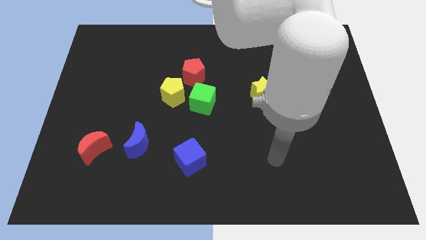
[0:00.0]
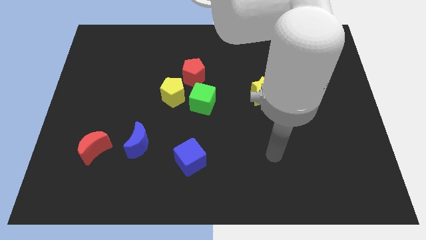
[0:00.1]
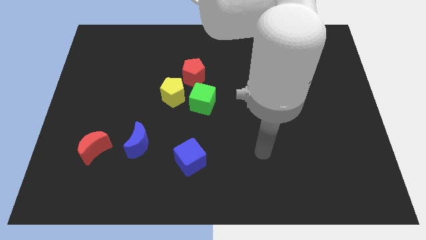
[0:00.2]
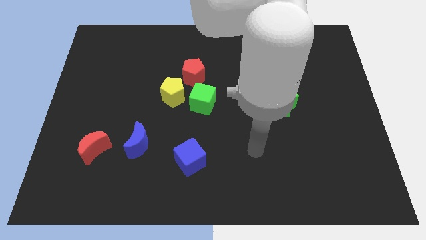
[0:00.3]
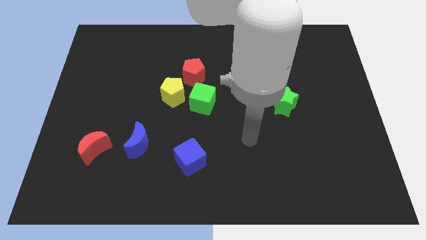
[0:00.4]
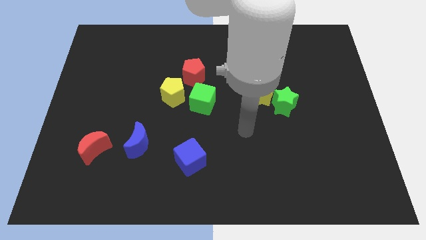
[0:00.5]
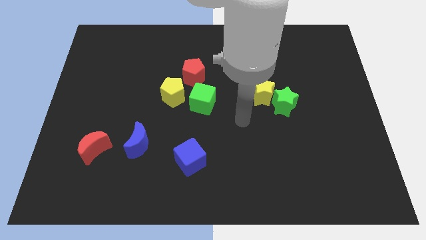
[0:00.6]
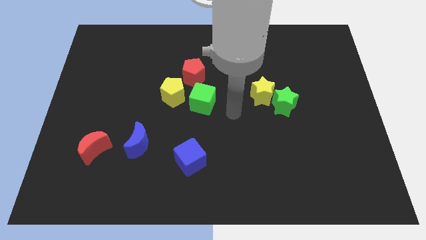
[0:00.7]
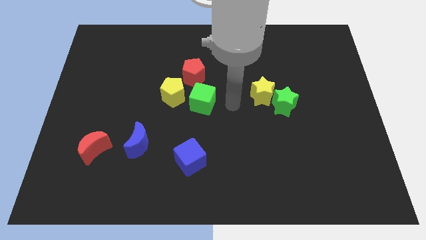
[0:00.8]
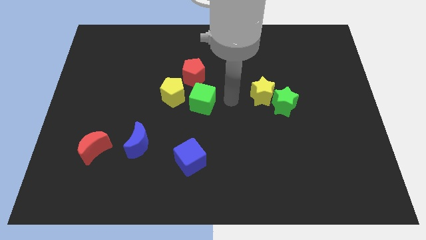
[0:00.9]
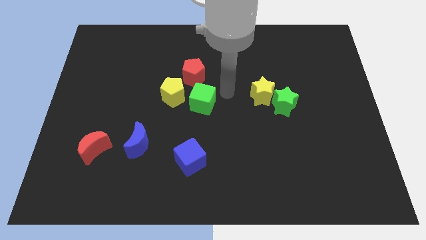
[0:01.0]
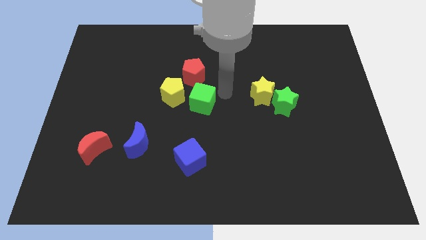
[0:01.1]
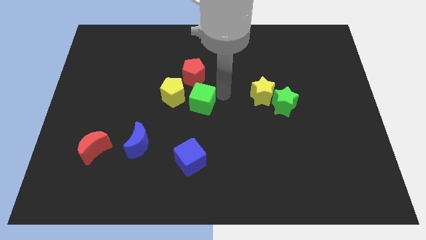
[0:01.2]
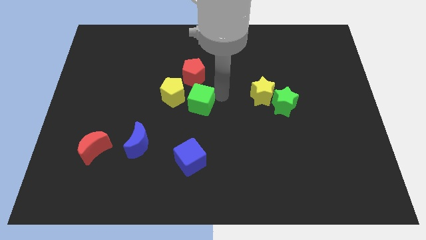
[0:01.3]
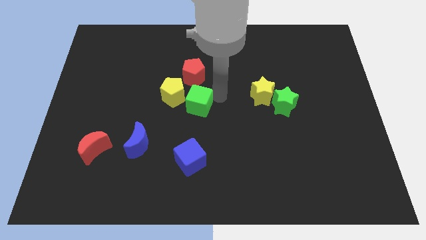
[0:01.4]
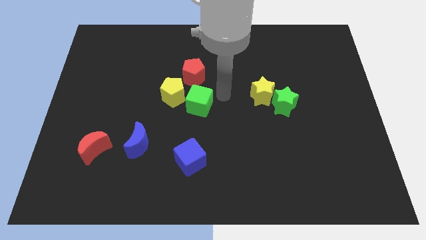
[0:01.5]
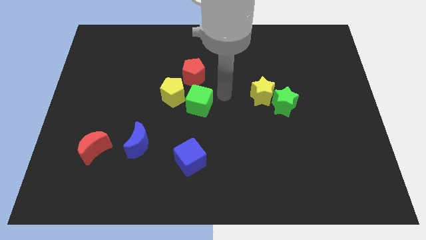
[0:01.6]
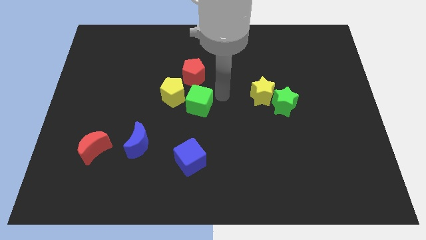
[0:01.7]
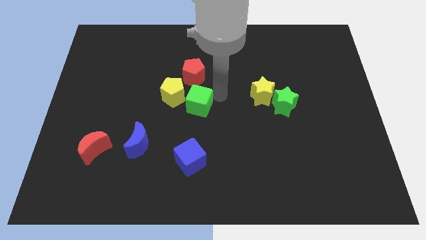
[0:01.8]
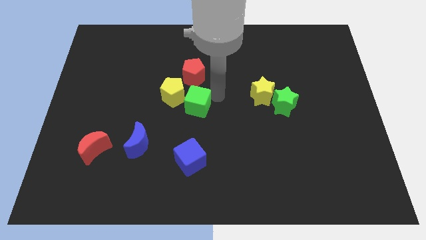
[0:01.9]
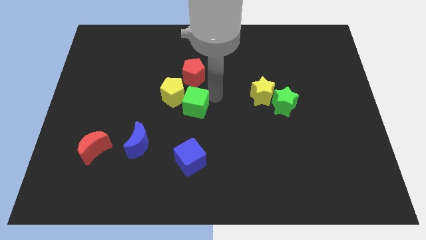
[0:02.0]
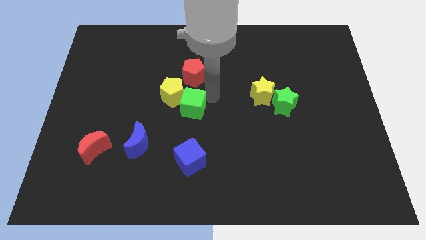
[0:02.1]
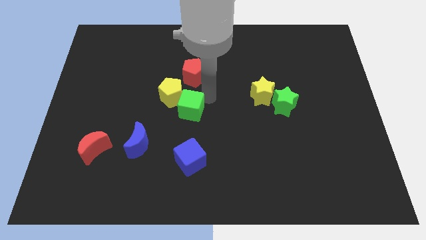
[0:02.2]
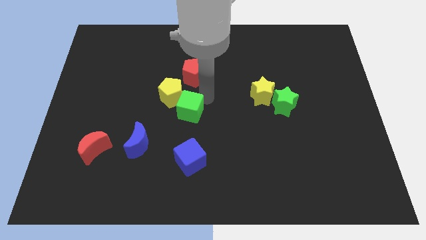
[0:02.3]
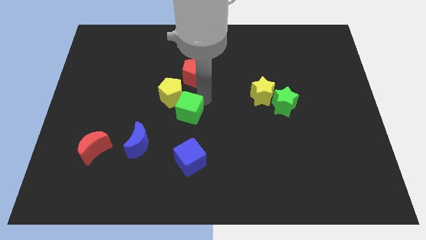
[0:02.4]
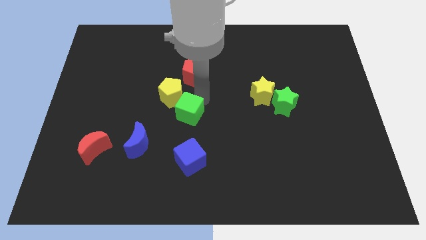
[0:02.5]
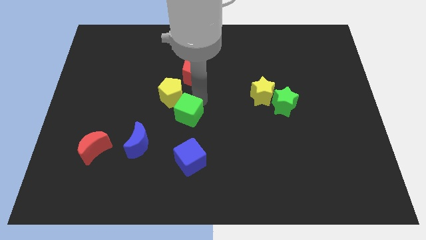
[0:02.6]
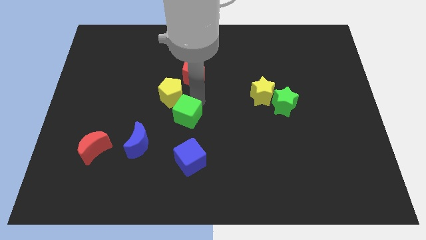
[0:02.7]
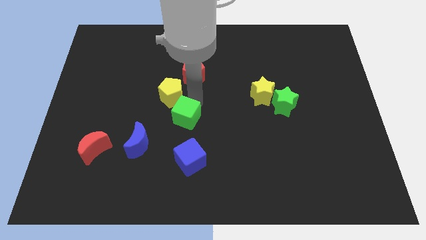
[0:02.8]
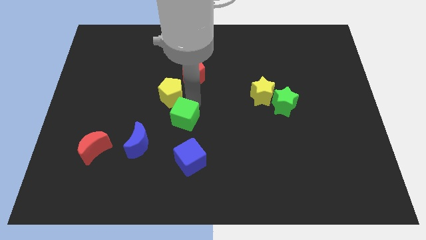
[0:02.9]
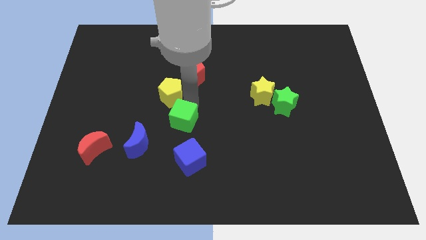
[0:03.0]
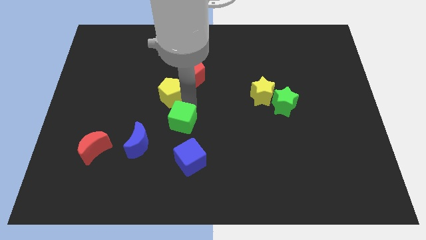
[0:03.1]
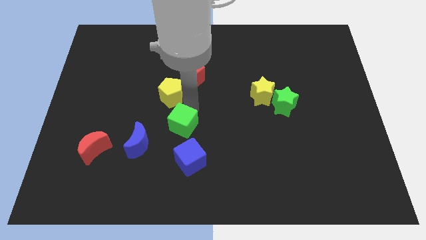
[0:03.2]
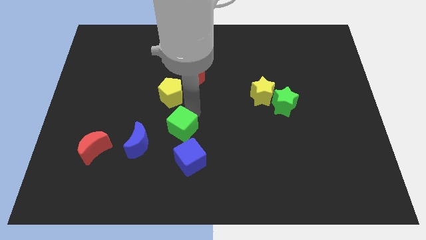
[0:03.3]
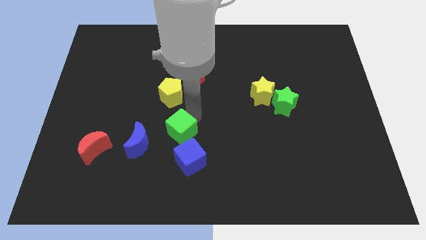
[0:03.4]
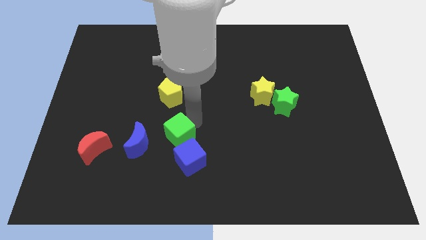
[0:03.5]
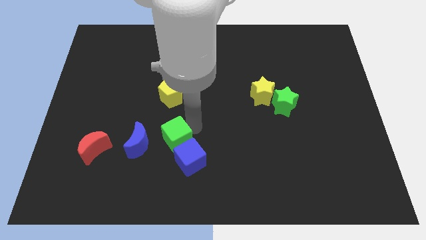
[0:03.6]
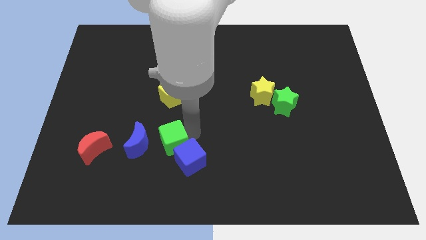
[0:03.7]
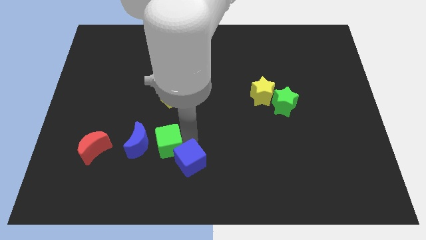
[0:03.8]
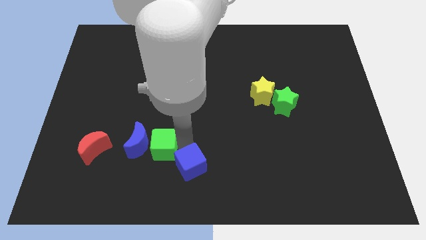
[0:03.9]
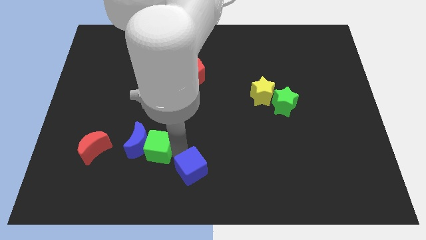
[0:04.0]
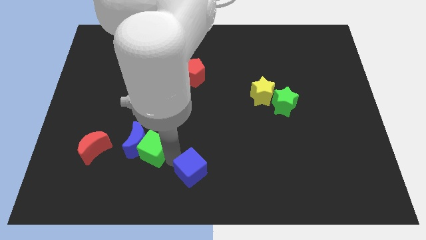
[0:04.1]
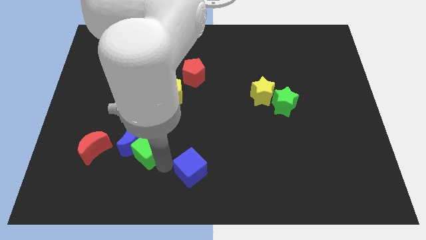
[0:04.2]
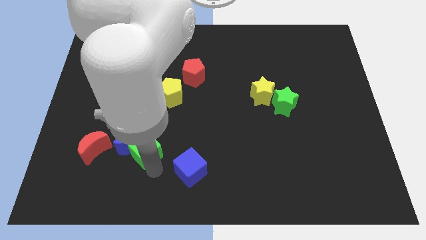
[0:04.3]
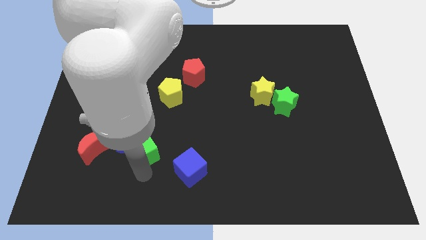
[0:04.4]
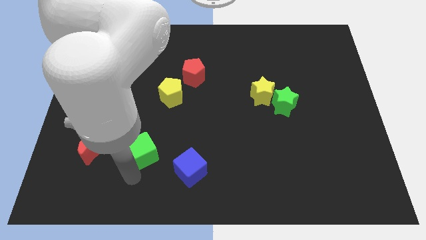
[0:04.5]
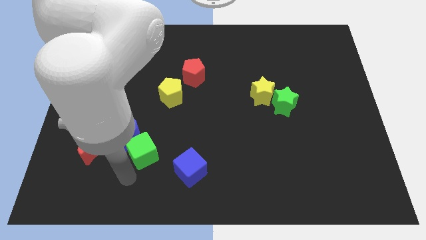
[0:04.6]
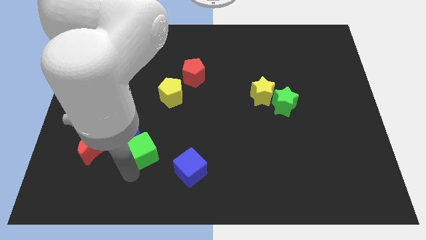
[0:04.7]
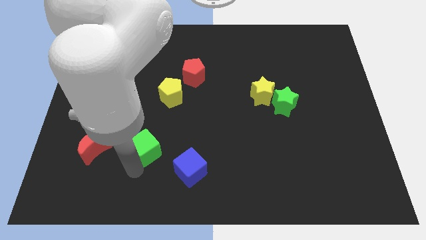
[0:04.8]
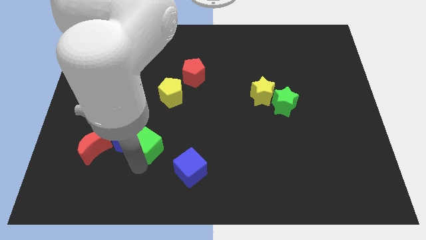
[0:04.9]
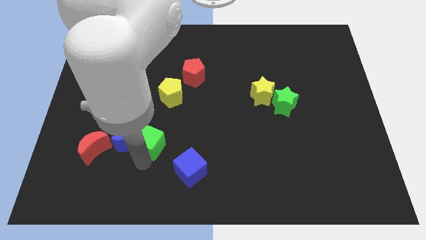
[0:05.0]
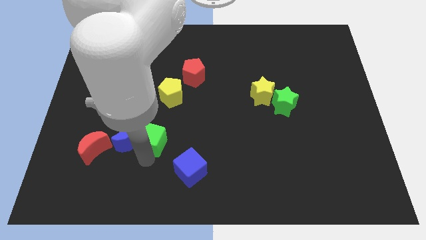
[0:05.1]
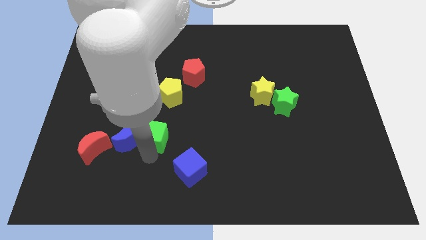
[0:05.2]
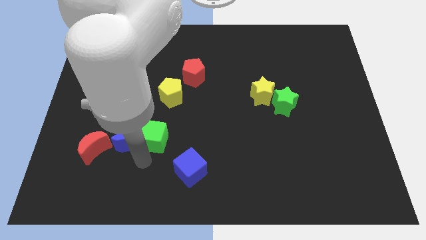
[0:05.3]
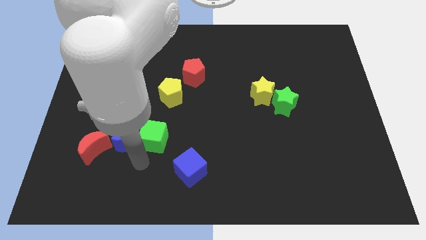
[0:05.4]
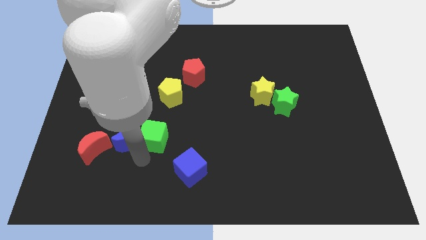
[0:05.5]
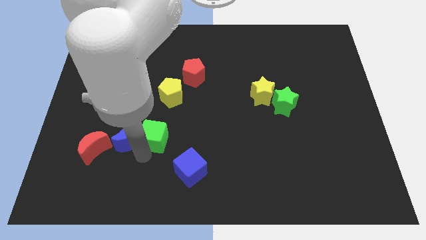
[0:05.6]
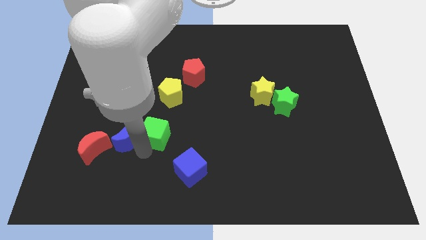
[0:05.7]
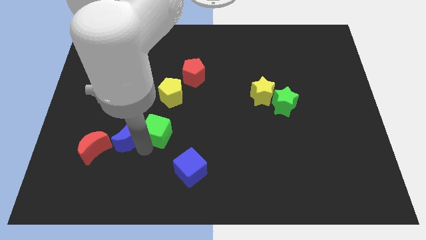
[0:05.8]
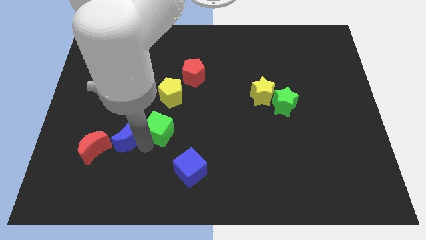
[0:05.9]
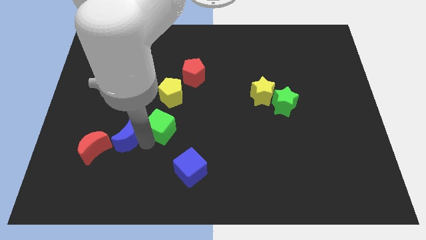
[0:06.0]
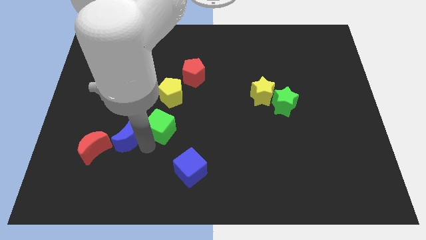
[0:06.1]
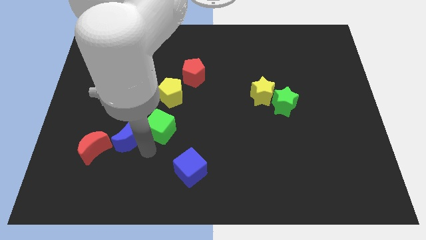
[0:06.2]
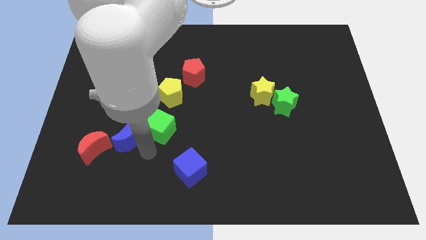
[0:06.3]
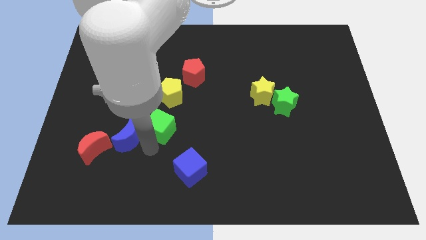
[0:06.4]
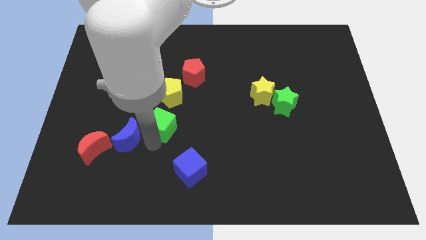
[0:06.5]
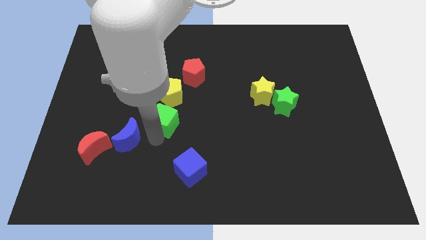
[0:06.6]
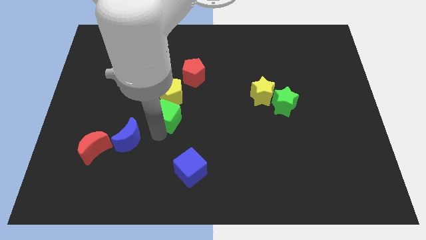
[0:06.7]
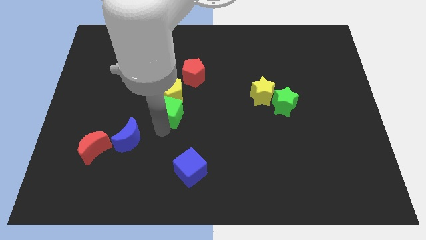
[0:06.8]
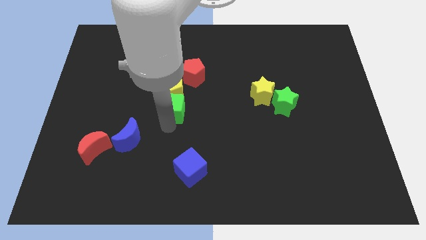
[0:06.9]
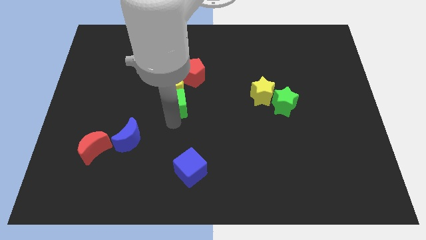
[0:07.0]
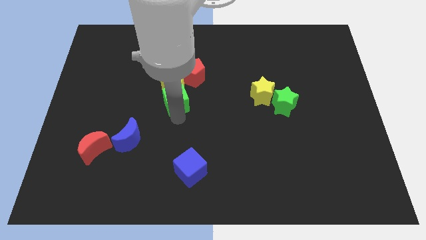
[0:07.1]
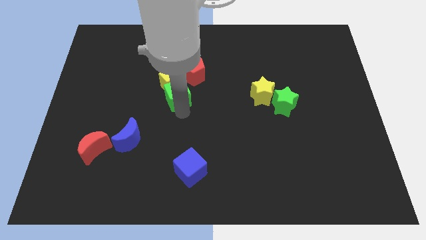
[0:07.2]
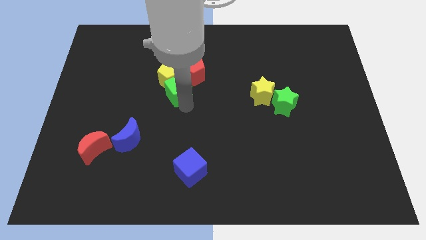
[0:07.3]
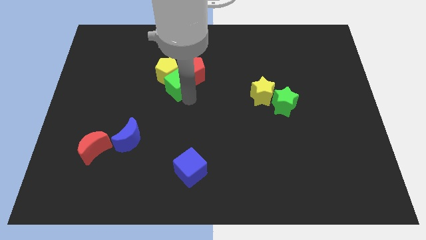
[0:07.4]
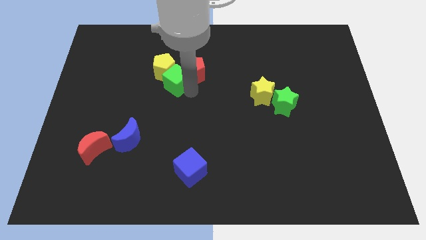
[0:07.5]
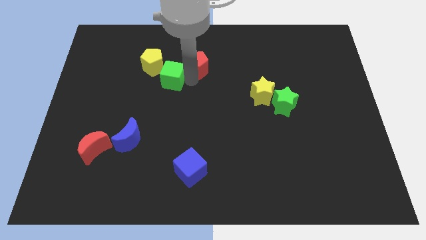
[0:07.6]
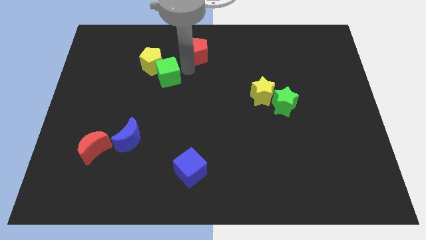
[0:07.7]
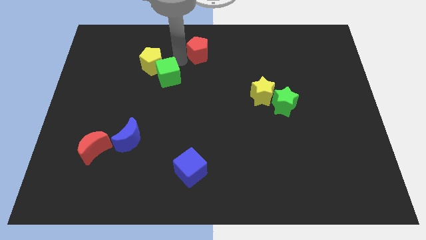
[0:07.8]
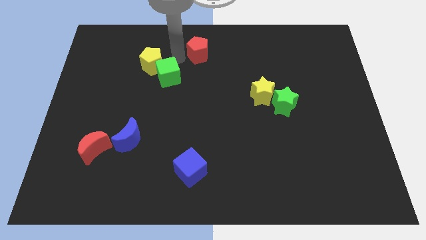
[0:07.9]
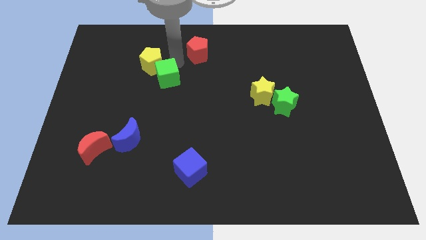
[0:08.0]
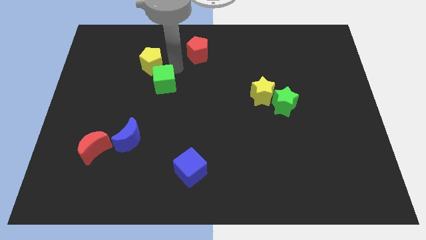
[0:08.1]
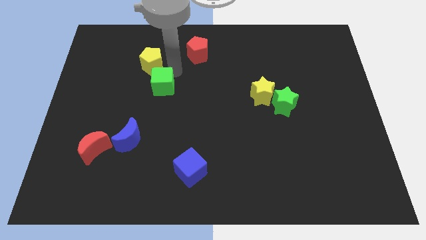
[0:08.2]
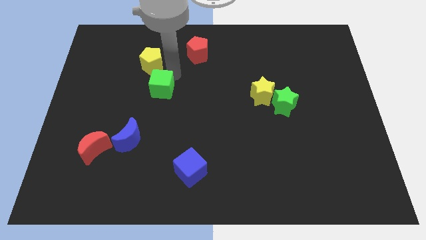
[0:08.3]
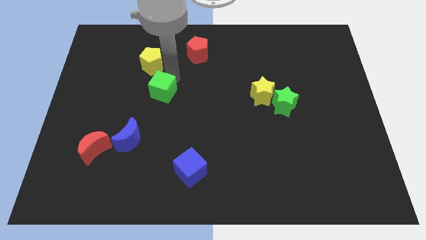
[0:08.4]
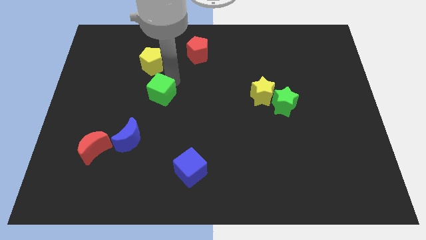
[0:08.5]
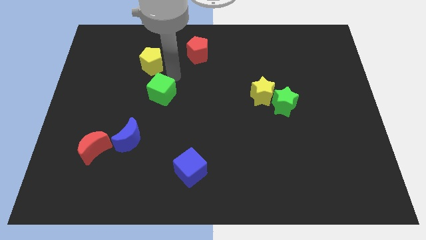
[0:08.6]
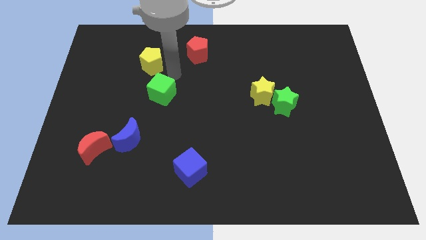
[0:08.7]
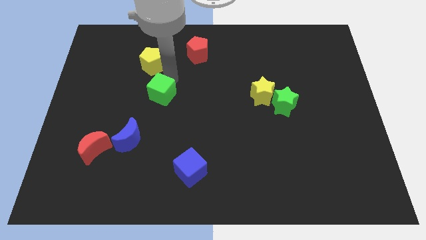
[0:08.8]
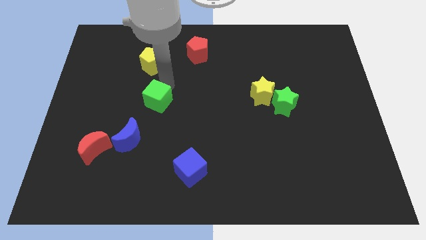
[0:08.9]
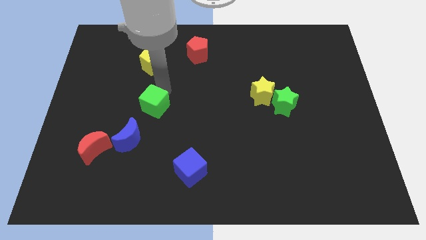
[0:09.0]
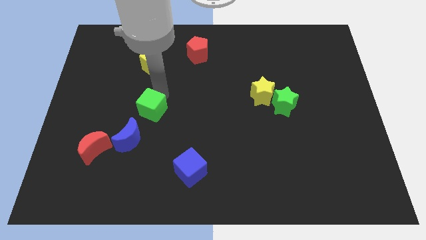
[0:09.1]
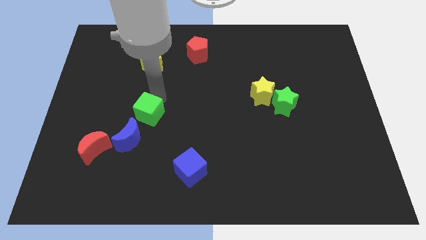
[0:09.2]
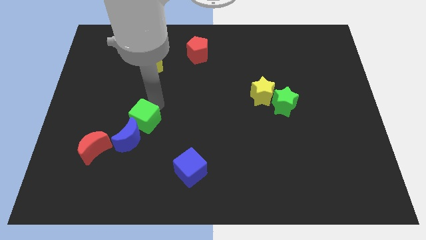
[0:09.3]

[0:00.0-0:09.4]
move the green cube diagonally up and to the right of the red moon
